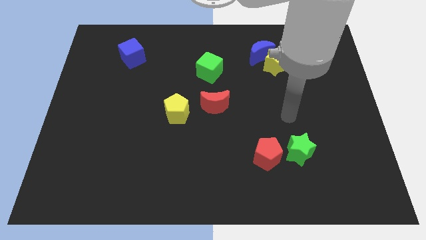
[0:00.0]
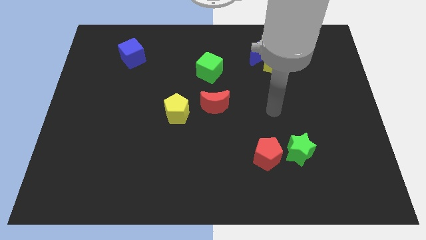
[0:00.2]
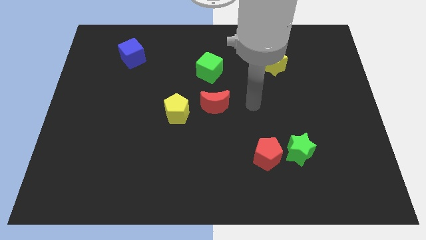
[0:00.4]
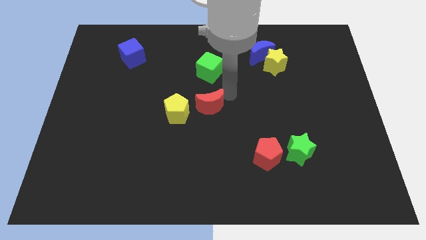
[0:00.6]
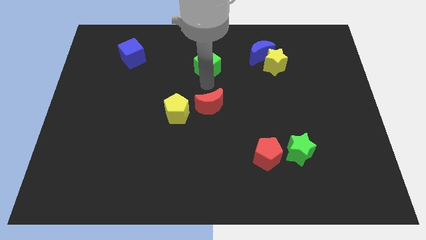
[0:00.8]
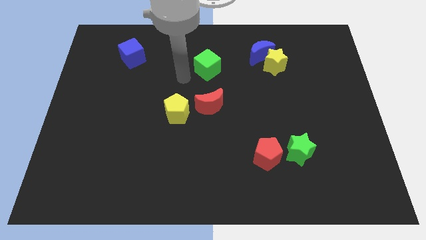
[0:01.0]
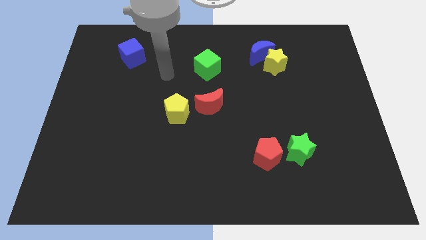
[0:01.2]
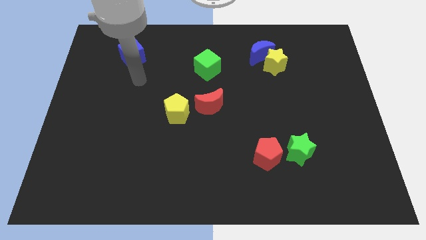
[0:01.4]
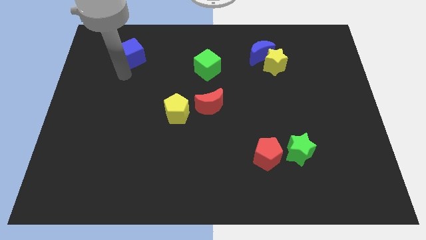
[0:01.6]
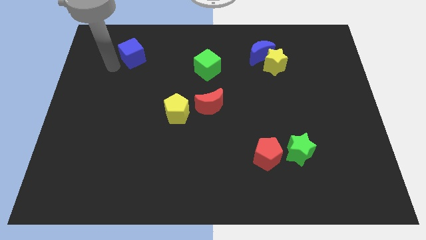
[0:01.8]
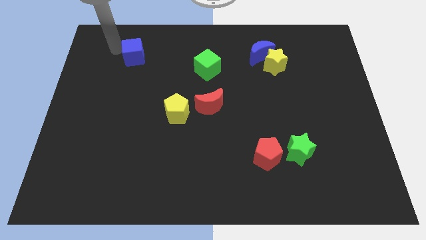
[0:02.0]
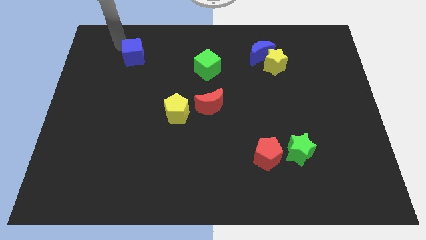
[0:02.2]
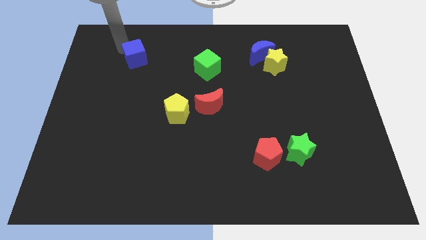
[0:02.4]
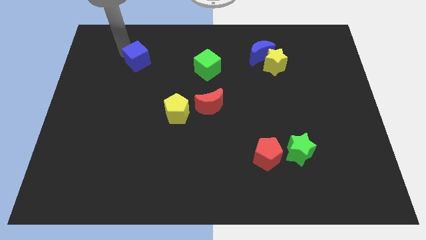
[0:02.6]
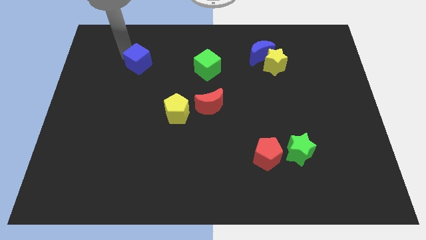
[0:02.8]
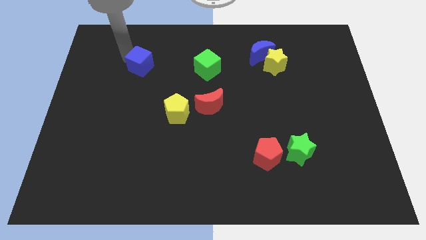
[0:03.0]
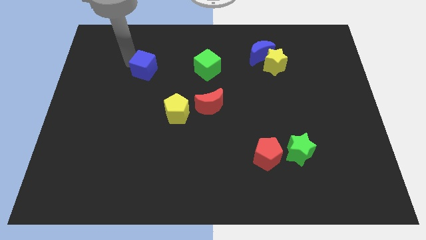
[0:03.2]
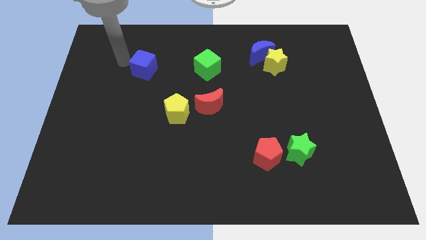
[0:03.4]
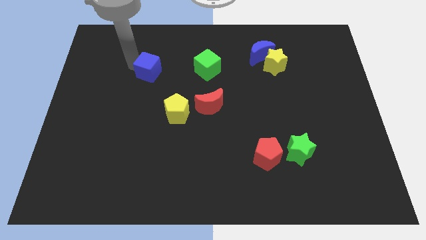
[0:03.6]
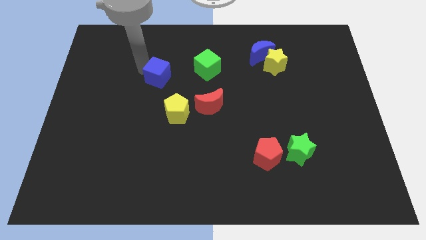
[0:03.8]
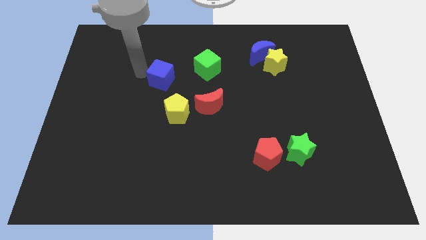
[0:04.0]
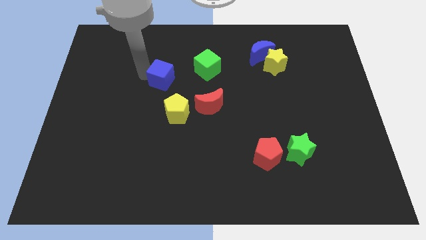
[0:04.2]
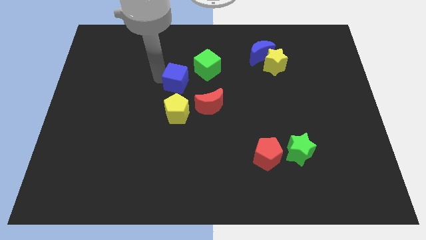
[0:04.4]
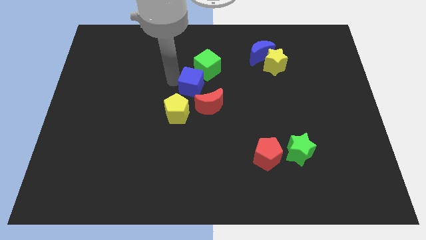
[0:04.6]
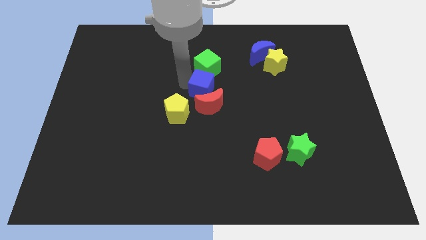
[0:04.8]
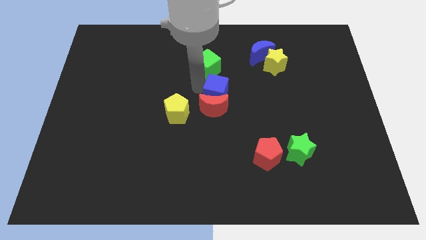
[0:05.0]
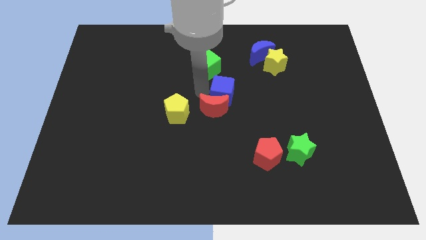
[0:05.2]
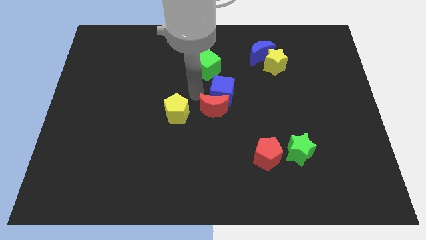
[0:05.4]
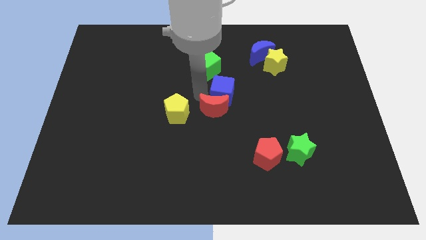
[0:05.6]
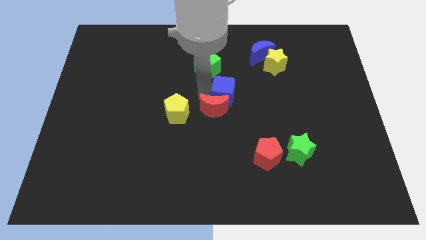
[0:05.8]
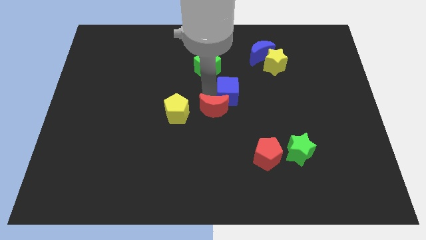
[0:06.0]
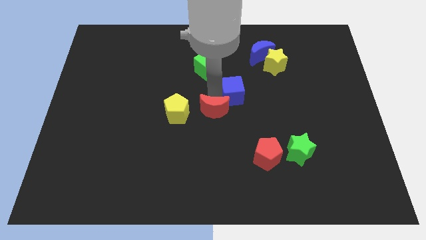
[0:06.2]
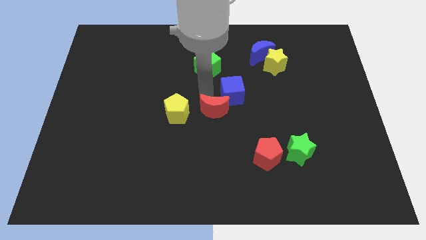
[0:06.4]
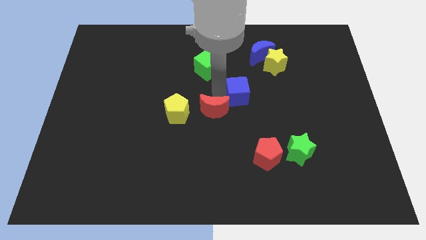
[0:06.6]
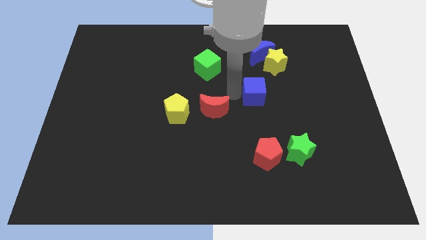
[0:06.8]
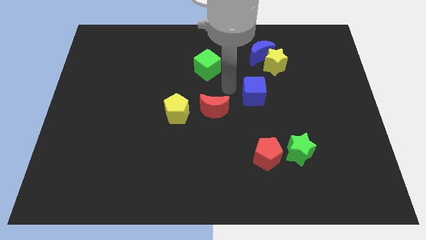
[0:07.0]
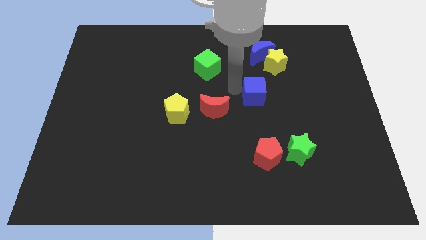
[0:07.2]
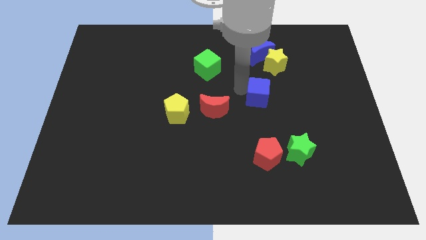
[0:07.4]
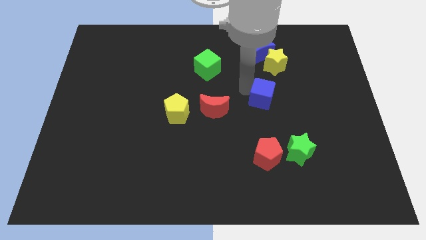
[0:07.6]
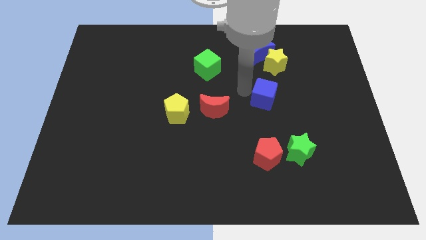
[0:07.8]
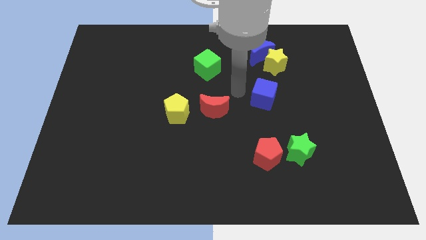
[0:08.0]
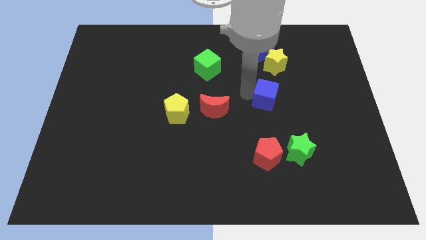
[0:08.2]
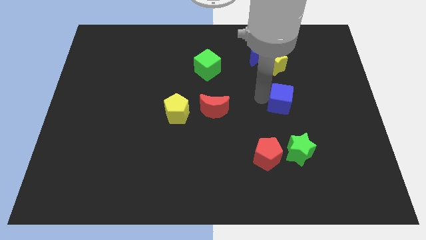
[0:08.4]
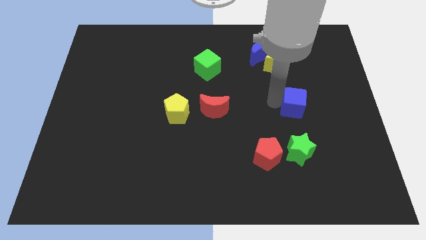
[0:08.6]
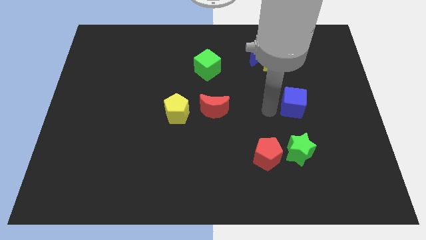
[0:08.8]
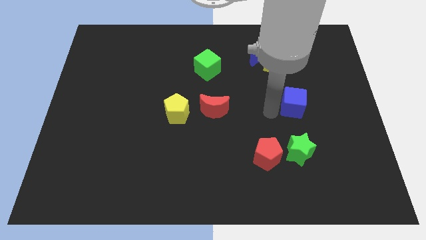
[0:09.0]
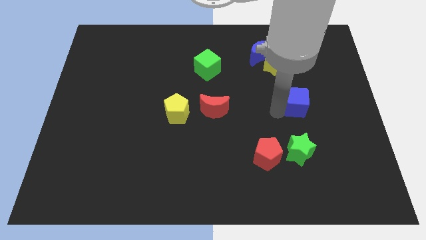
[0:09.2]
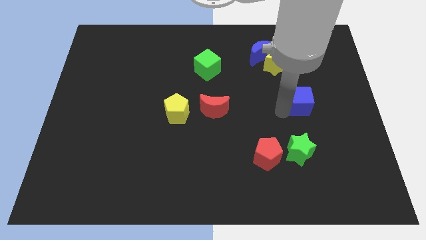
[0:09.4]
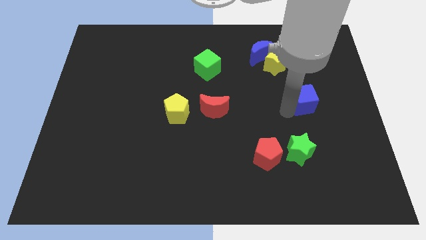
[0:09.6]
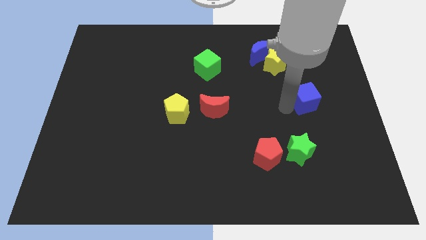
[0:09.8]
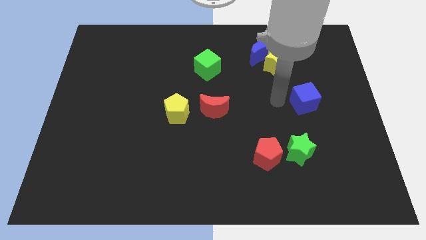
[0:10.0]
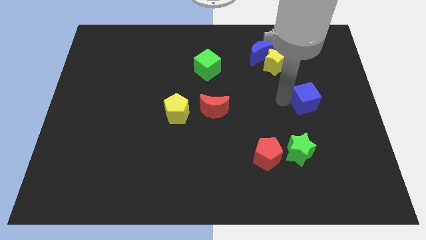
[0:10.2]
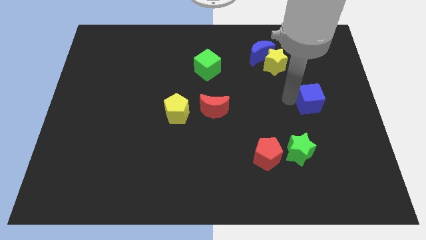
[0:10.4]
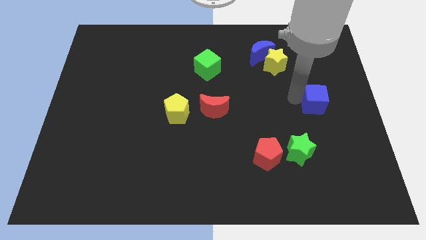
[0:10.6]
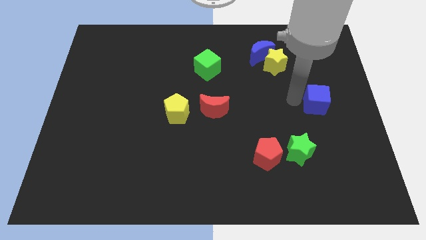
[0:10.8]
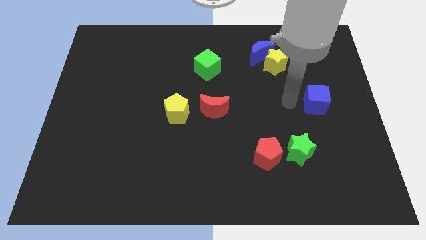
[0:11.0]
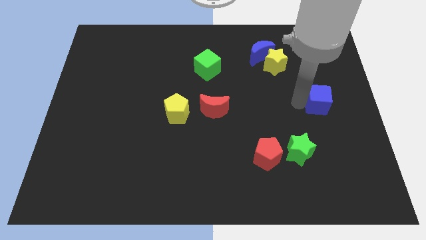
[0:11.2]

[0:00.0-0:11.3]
slide the blue cube to the right side of the board

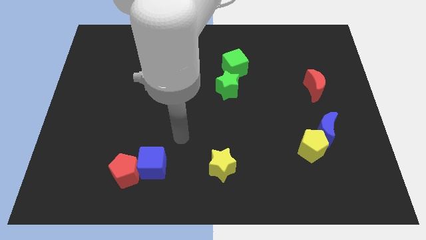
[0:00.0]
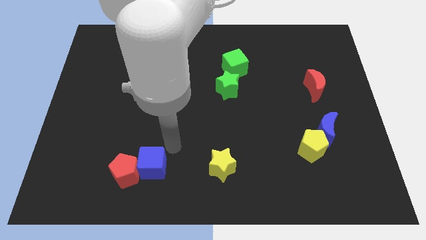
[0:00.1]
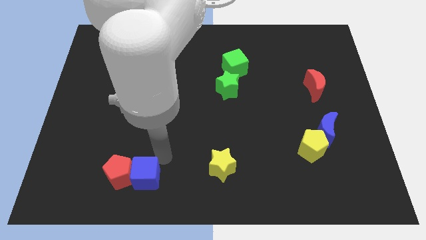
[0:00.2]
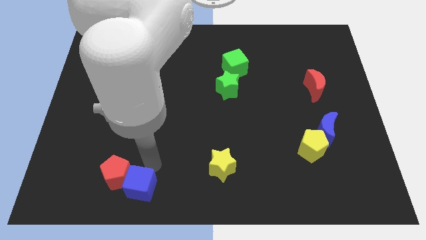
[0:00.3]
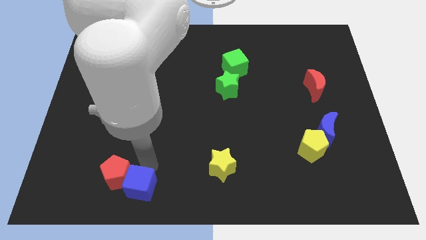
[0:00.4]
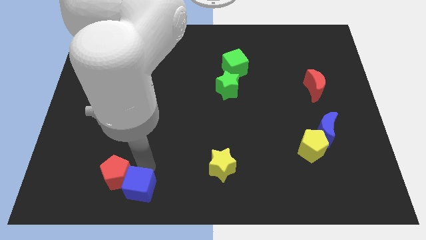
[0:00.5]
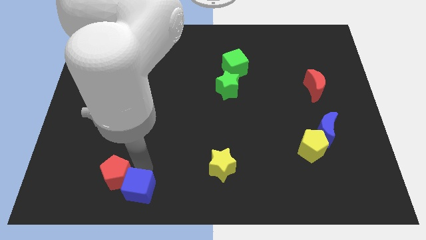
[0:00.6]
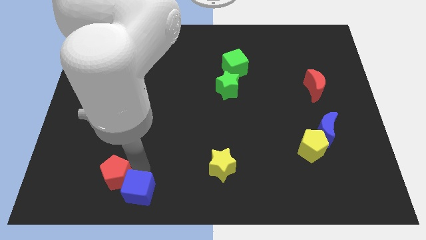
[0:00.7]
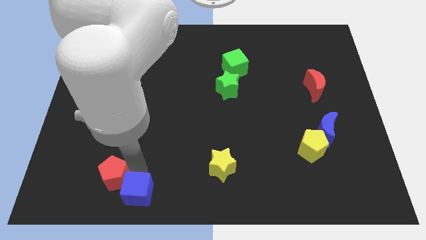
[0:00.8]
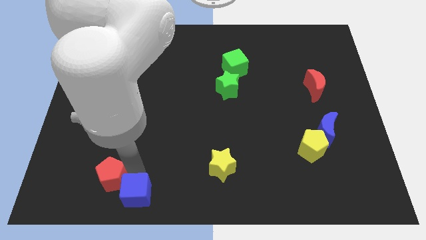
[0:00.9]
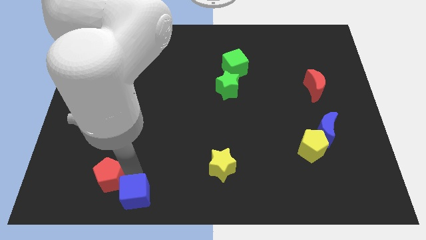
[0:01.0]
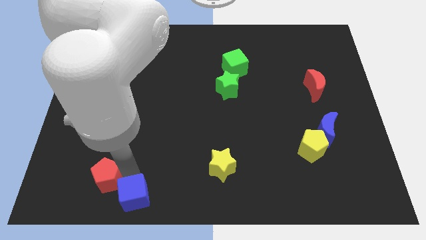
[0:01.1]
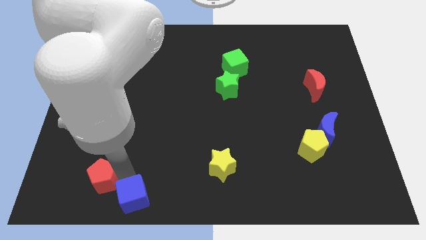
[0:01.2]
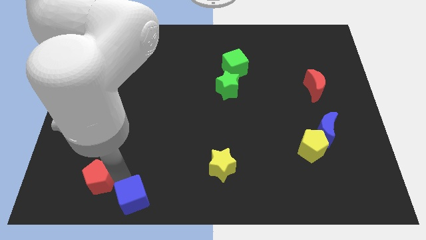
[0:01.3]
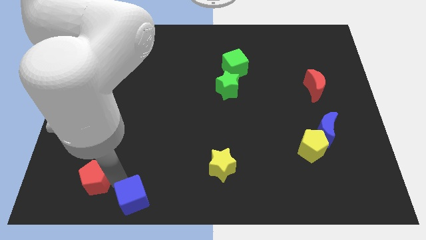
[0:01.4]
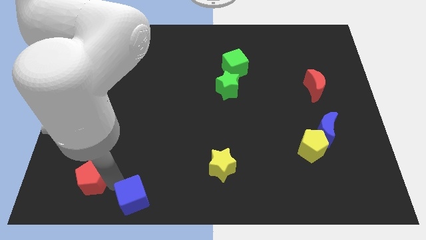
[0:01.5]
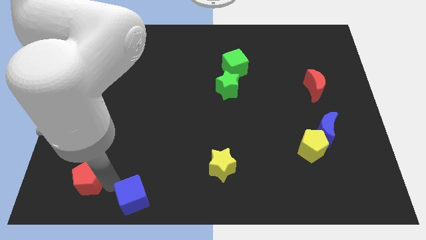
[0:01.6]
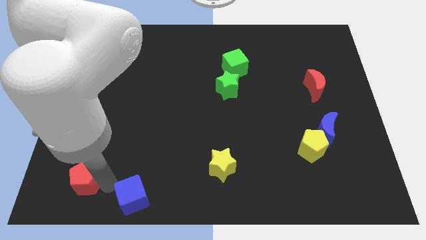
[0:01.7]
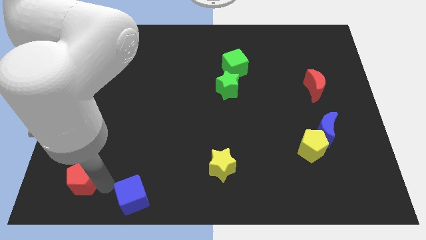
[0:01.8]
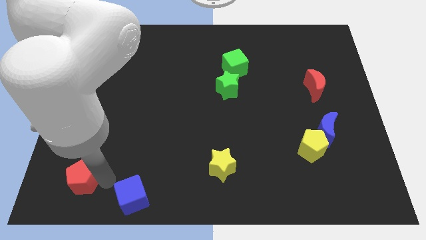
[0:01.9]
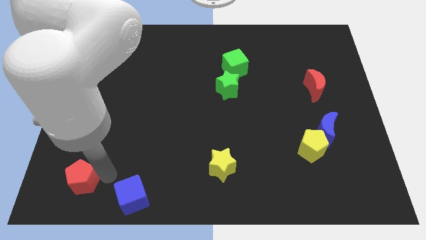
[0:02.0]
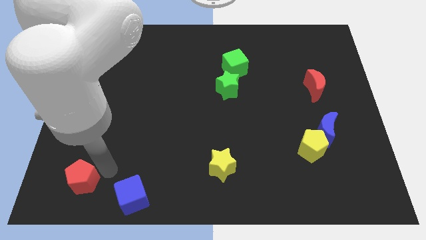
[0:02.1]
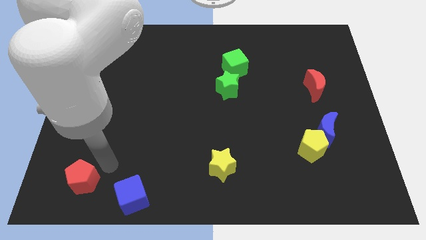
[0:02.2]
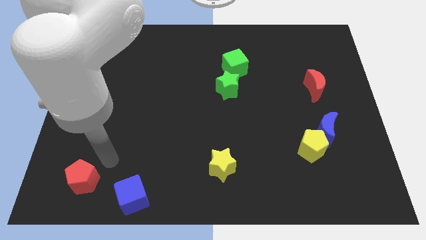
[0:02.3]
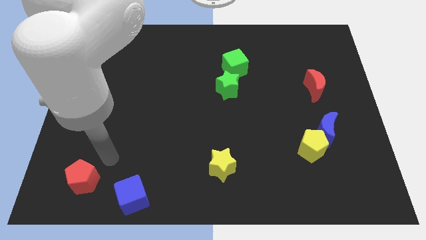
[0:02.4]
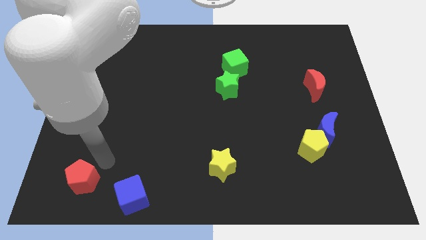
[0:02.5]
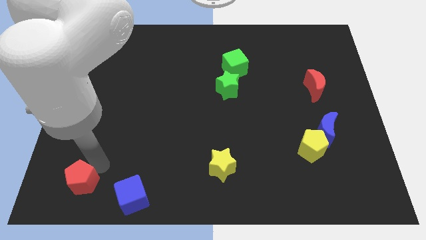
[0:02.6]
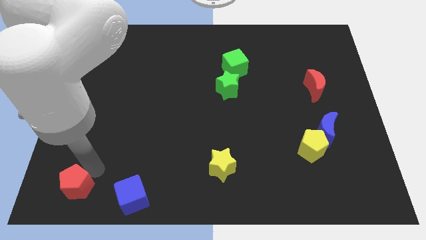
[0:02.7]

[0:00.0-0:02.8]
slide the red pentagon to the bottom left
